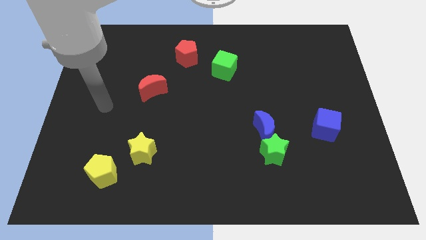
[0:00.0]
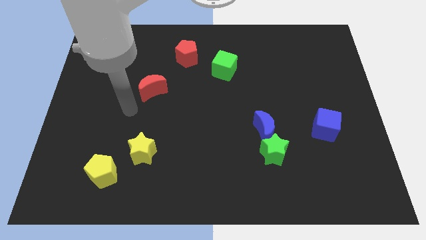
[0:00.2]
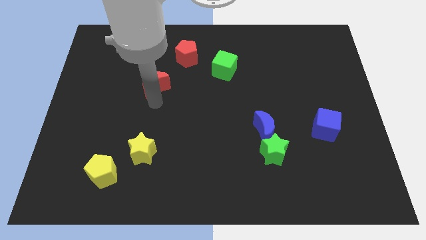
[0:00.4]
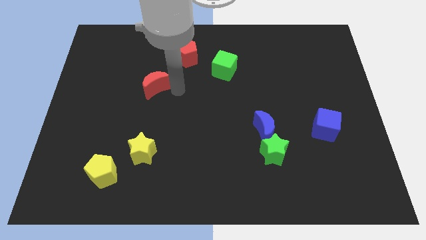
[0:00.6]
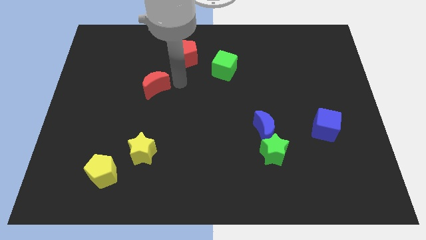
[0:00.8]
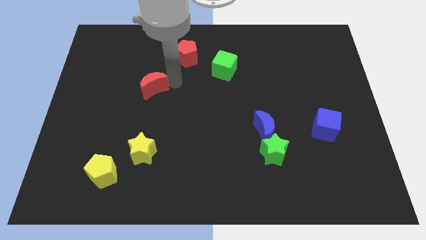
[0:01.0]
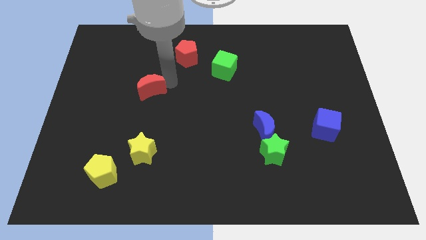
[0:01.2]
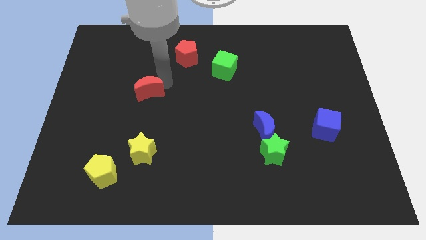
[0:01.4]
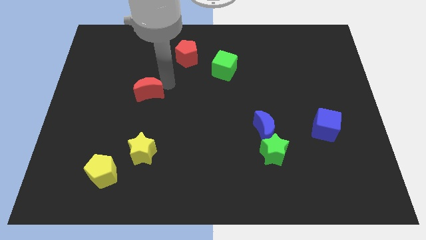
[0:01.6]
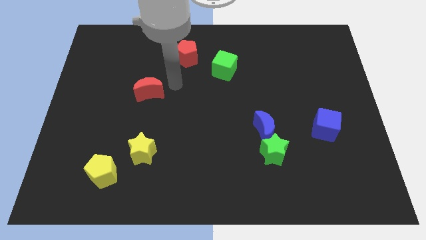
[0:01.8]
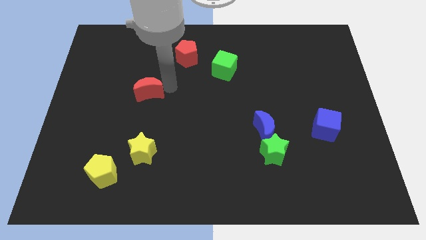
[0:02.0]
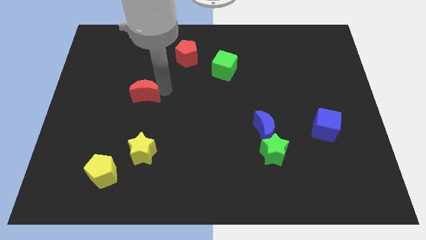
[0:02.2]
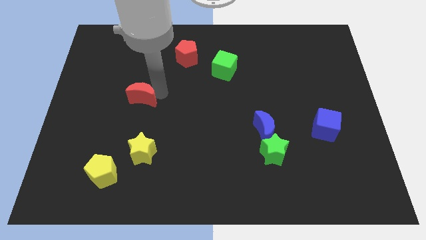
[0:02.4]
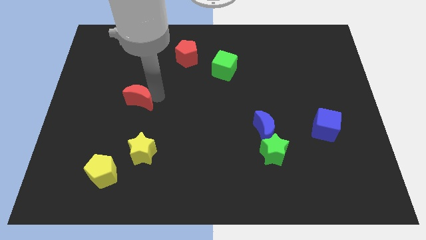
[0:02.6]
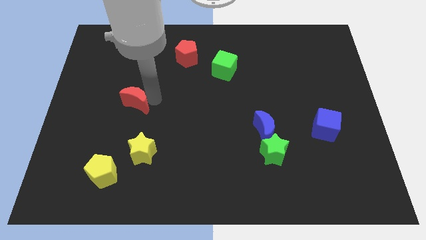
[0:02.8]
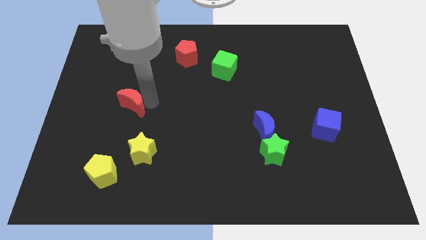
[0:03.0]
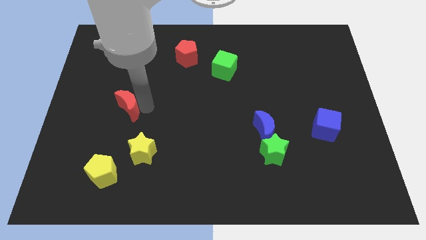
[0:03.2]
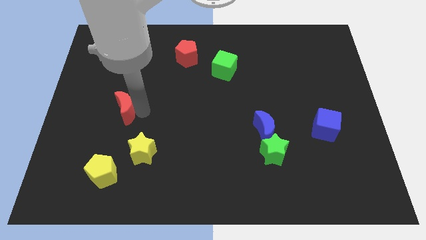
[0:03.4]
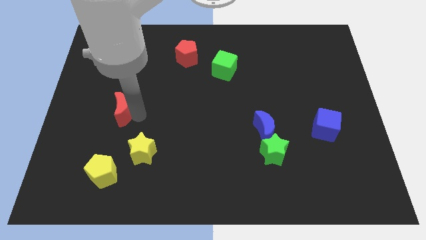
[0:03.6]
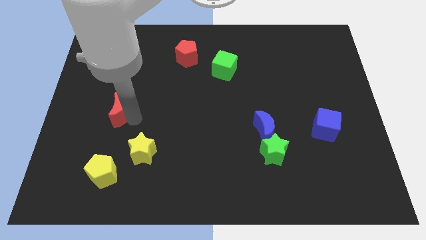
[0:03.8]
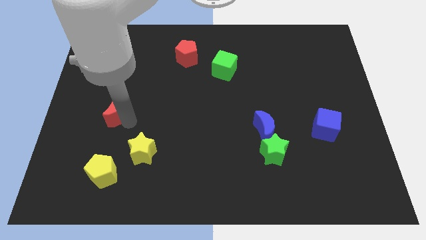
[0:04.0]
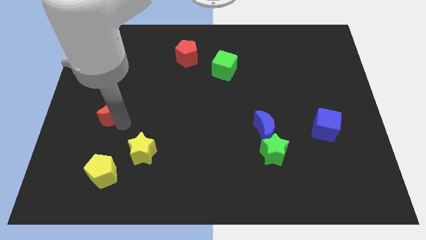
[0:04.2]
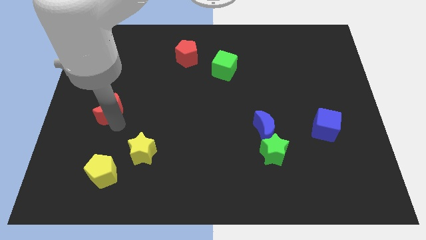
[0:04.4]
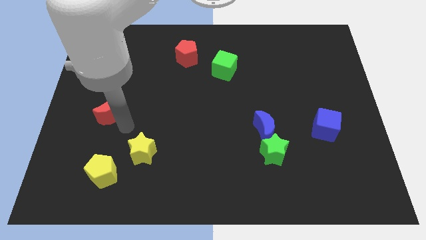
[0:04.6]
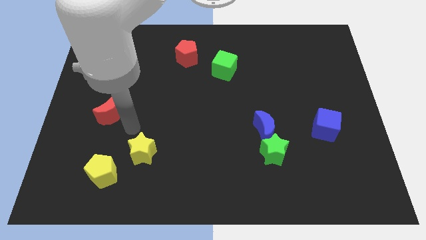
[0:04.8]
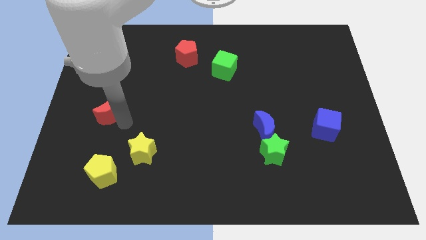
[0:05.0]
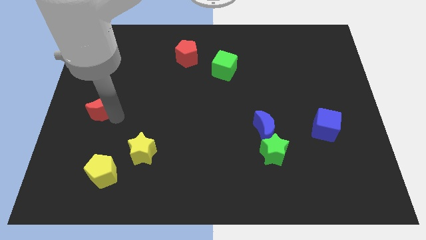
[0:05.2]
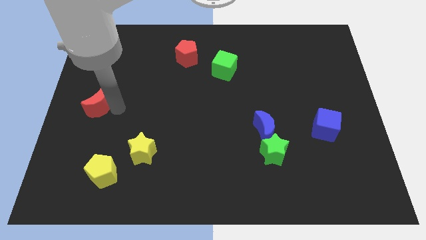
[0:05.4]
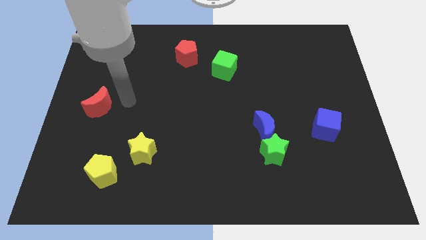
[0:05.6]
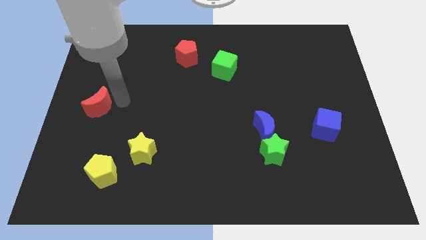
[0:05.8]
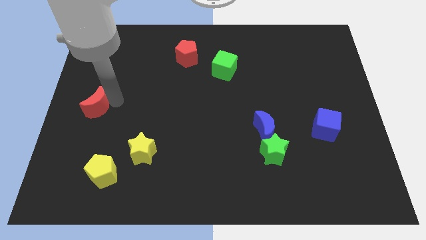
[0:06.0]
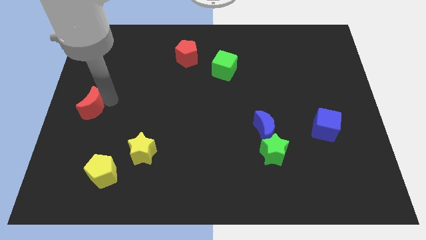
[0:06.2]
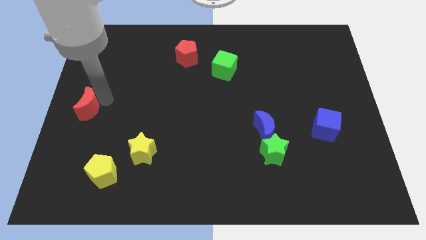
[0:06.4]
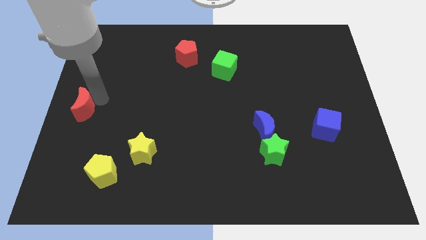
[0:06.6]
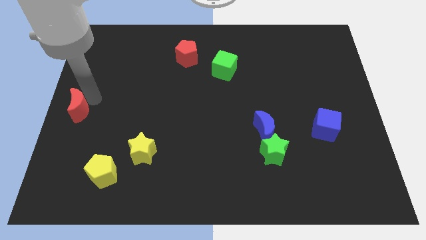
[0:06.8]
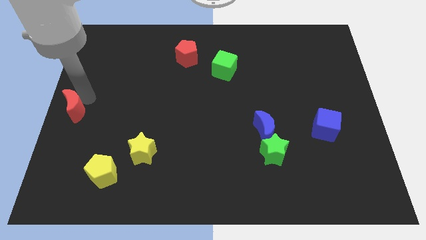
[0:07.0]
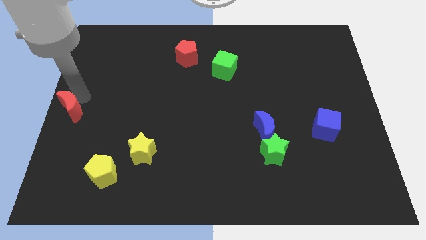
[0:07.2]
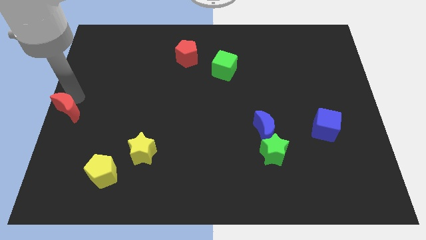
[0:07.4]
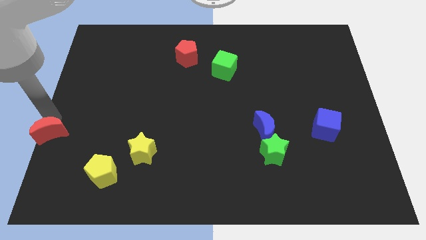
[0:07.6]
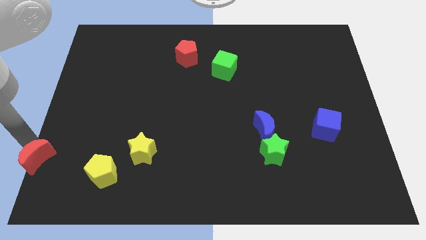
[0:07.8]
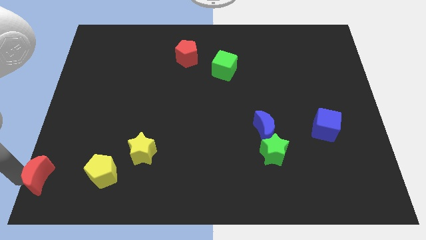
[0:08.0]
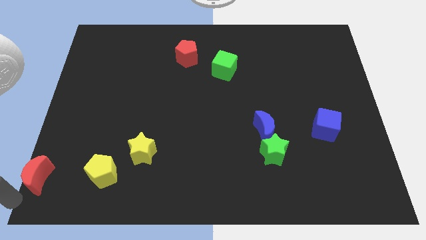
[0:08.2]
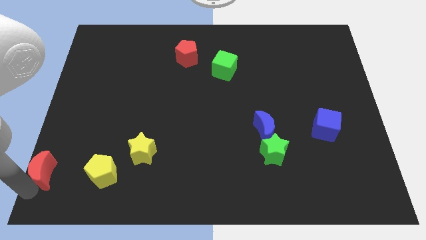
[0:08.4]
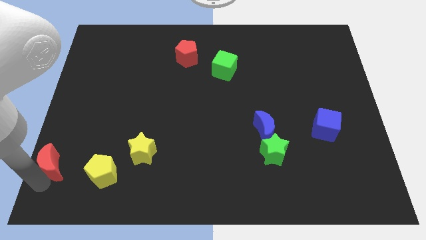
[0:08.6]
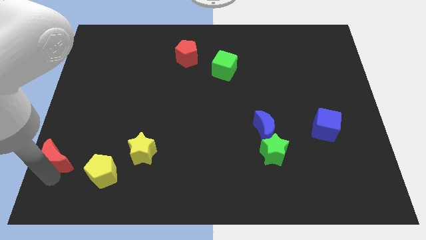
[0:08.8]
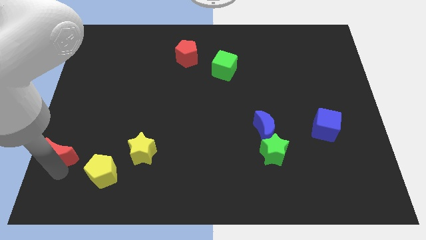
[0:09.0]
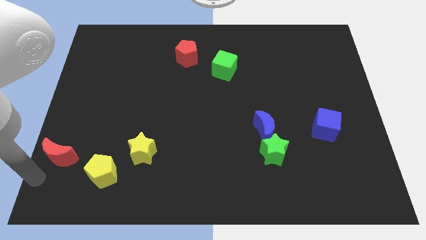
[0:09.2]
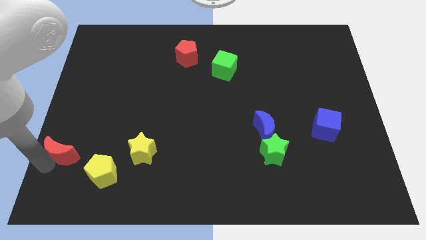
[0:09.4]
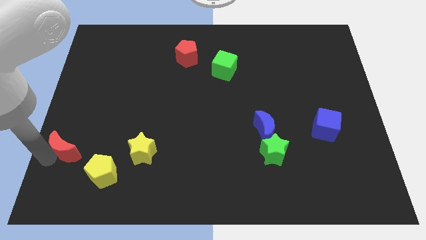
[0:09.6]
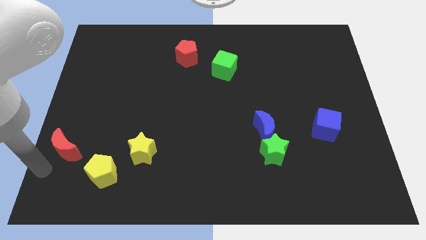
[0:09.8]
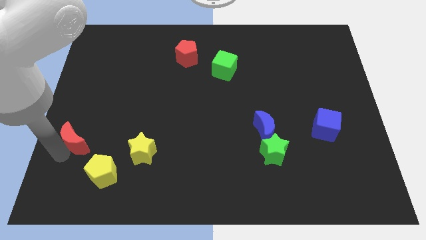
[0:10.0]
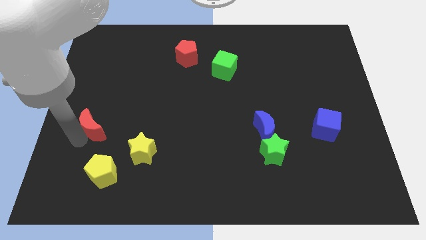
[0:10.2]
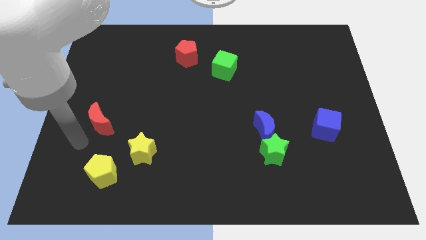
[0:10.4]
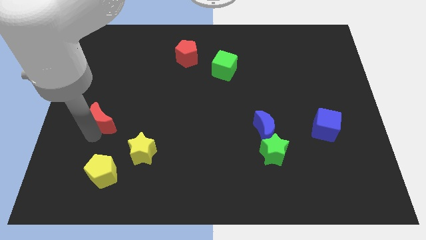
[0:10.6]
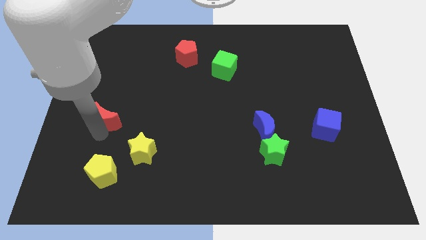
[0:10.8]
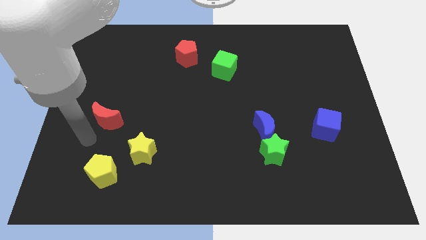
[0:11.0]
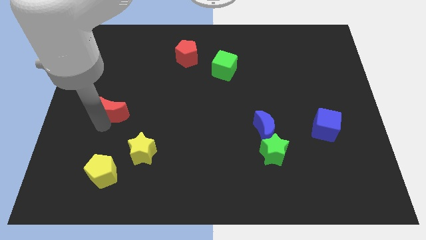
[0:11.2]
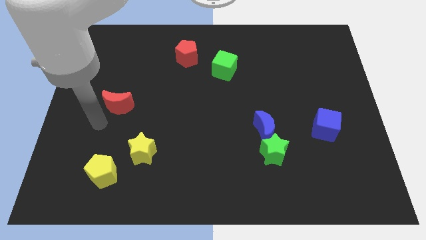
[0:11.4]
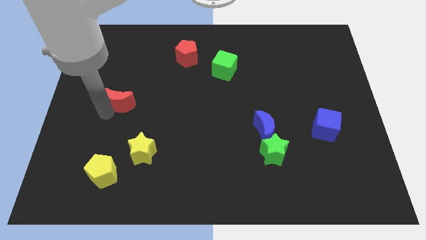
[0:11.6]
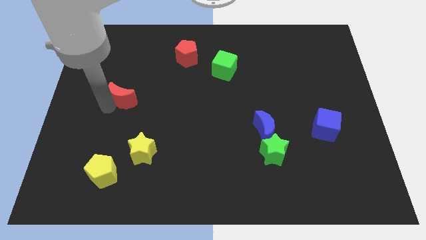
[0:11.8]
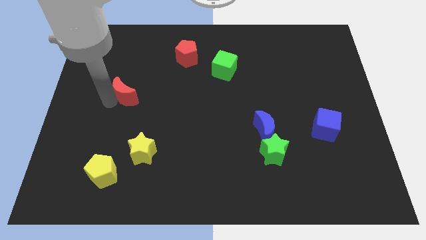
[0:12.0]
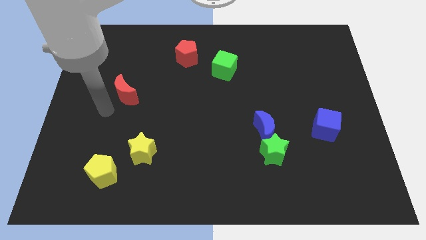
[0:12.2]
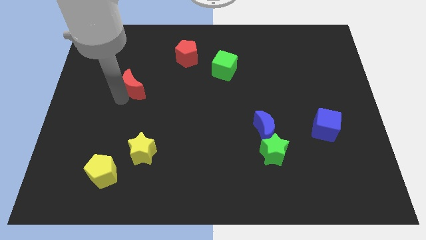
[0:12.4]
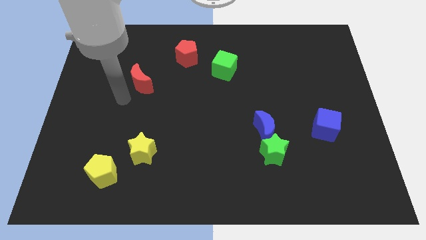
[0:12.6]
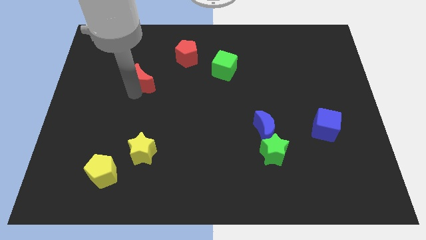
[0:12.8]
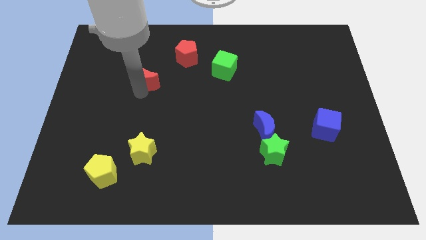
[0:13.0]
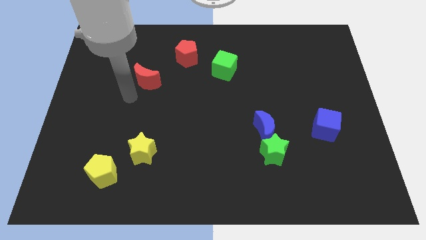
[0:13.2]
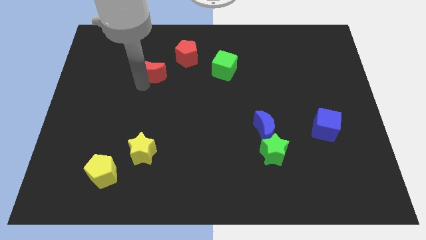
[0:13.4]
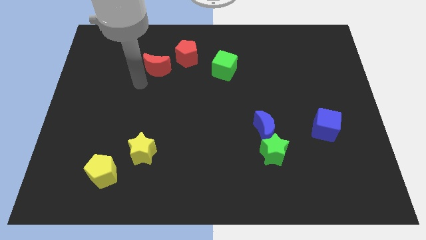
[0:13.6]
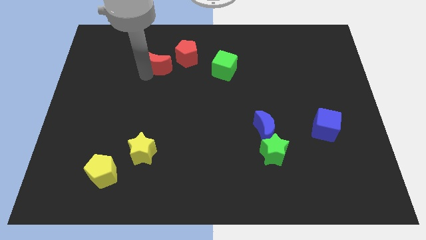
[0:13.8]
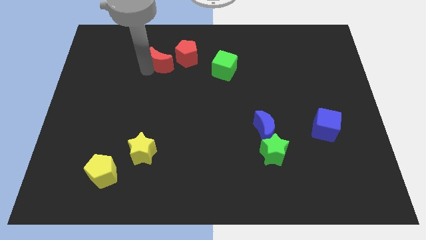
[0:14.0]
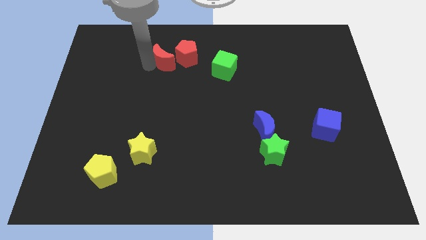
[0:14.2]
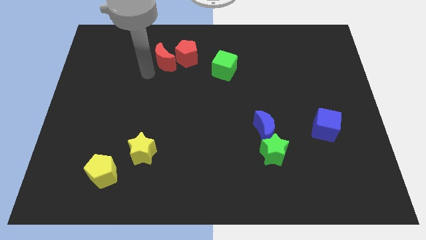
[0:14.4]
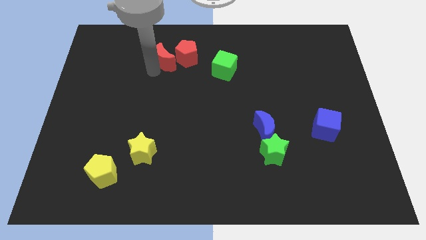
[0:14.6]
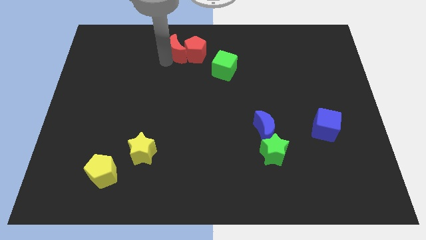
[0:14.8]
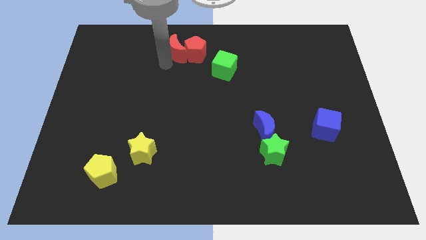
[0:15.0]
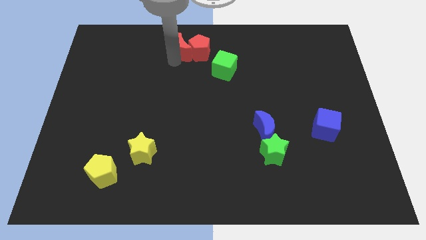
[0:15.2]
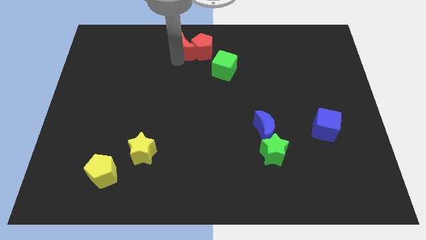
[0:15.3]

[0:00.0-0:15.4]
put the red moon to the top
